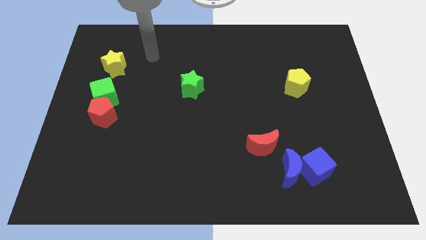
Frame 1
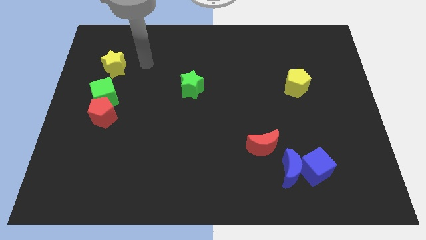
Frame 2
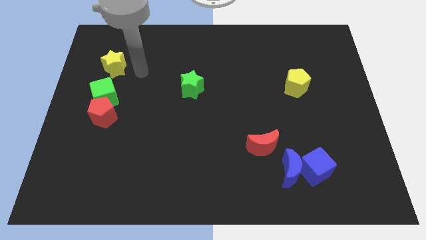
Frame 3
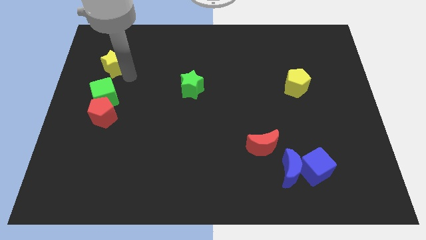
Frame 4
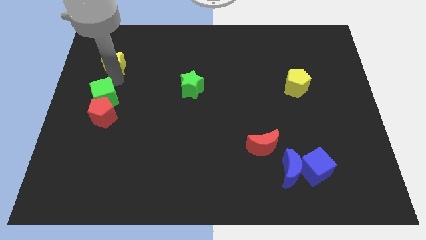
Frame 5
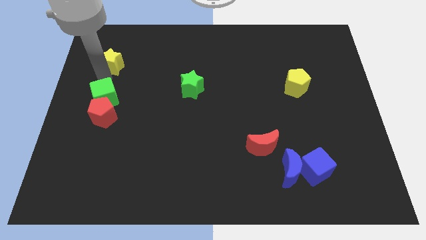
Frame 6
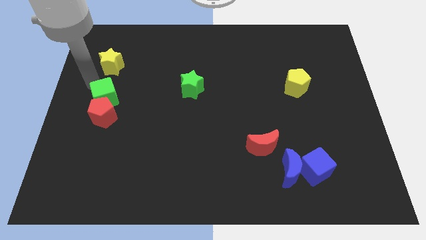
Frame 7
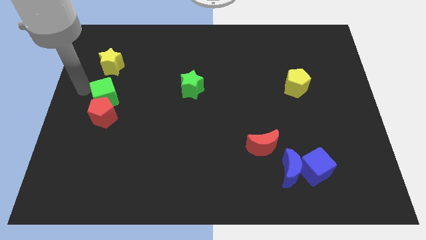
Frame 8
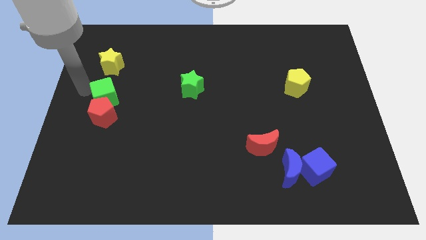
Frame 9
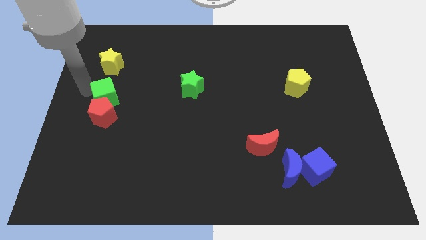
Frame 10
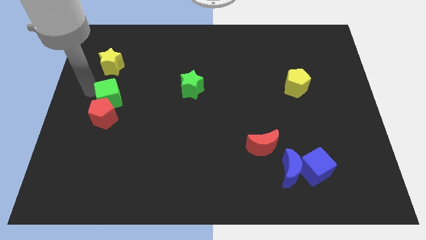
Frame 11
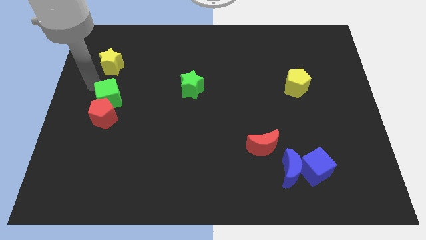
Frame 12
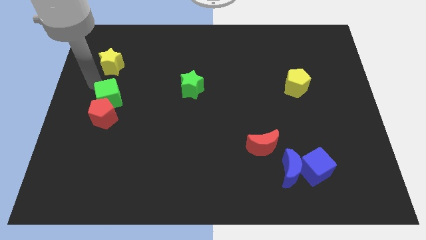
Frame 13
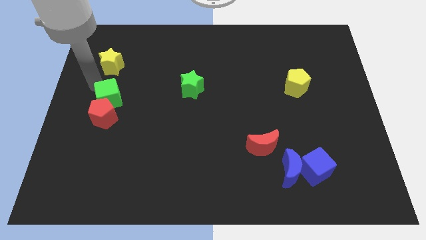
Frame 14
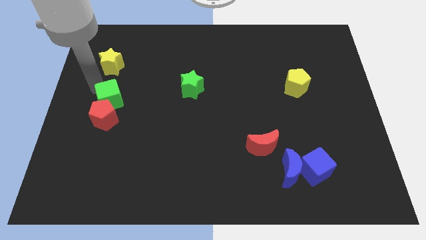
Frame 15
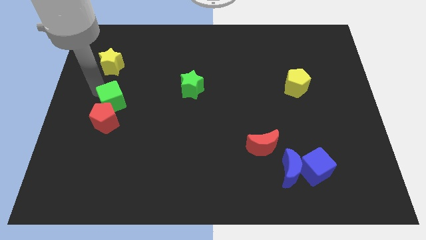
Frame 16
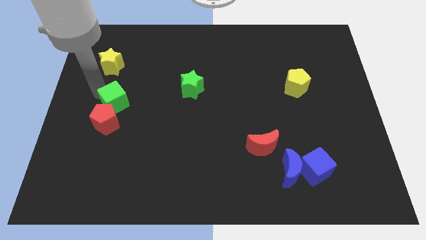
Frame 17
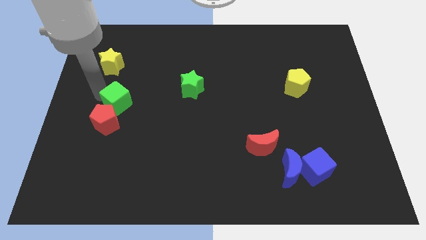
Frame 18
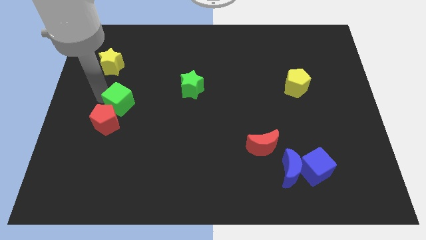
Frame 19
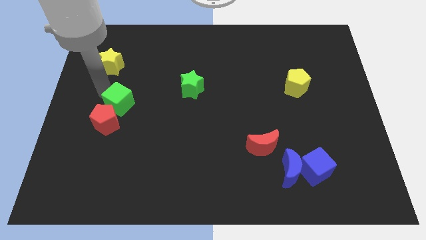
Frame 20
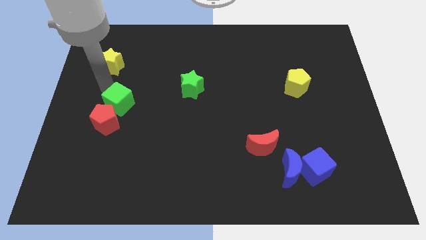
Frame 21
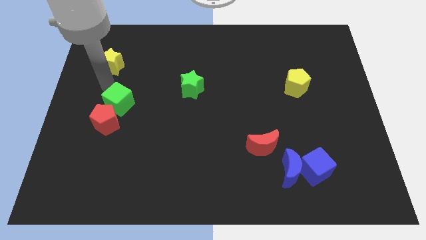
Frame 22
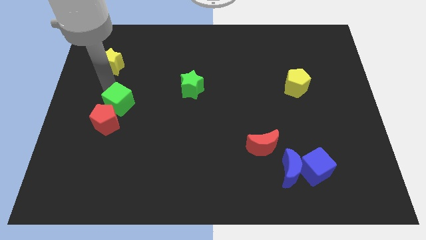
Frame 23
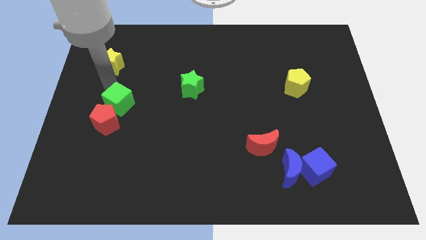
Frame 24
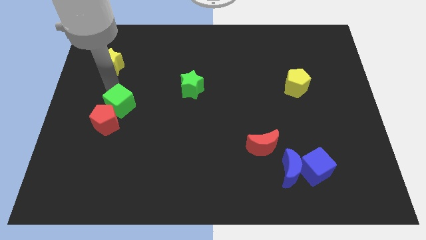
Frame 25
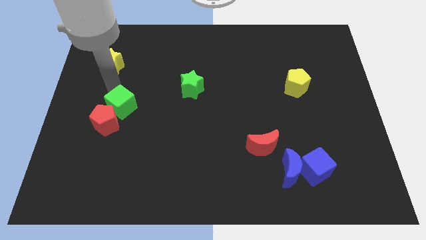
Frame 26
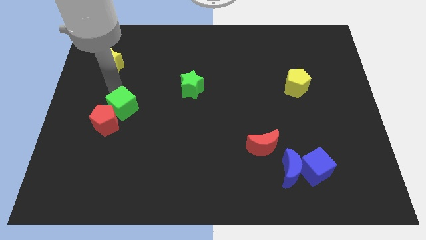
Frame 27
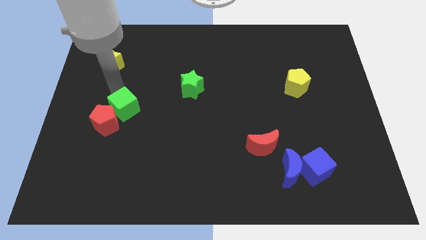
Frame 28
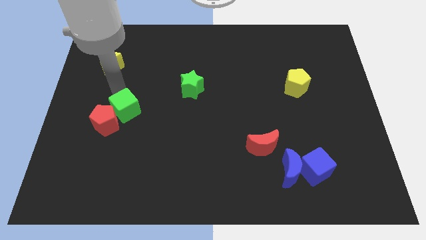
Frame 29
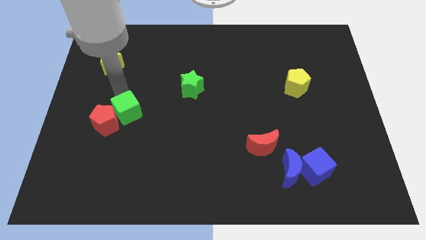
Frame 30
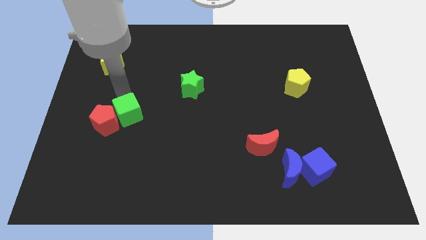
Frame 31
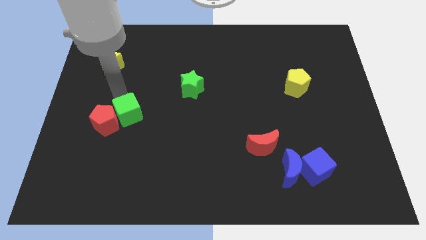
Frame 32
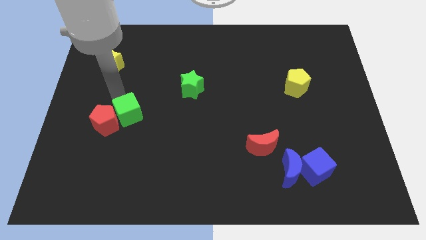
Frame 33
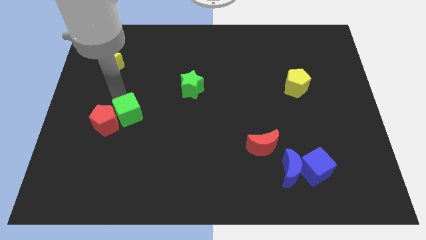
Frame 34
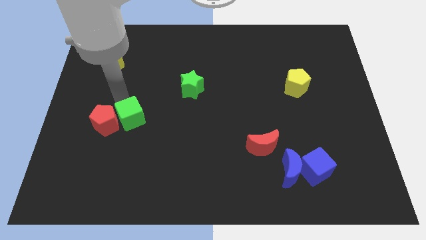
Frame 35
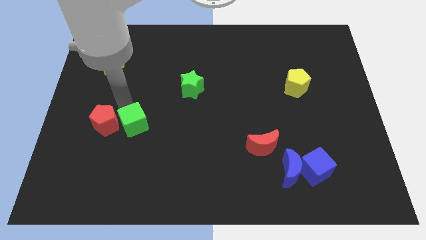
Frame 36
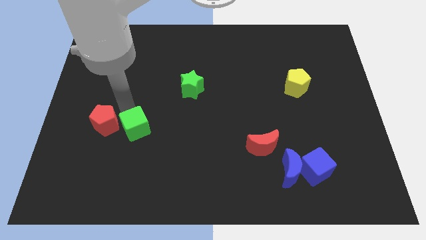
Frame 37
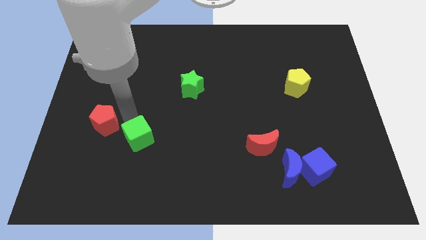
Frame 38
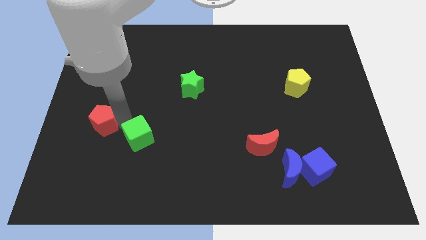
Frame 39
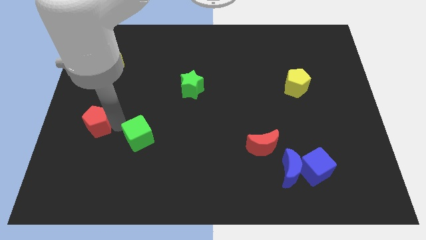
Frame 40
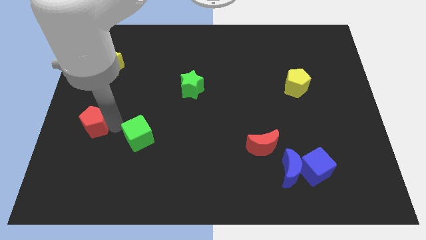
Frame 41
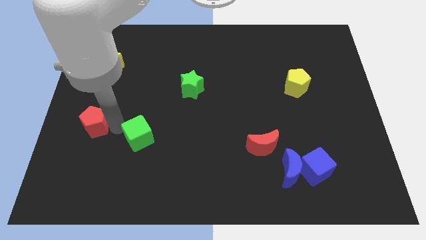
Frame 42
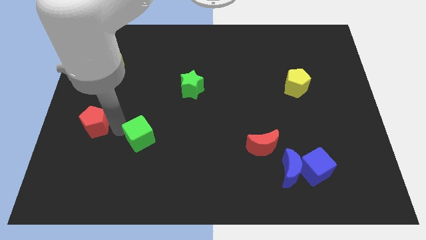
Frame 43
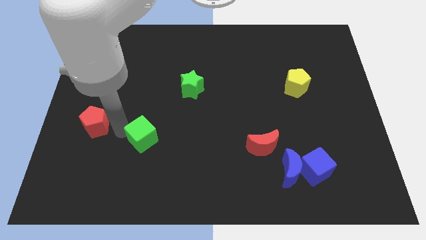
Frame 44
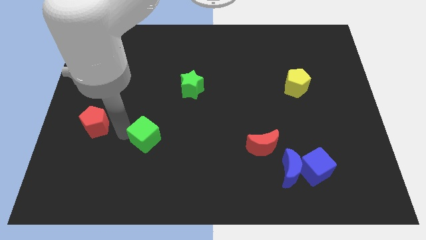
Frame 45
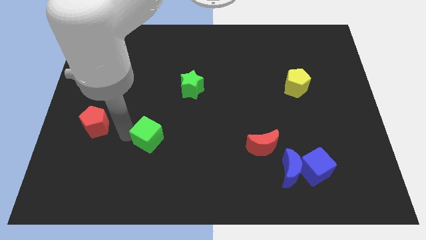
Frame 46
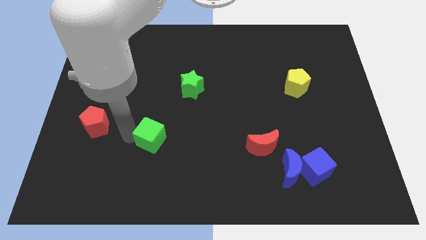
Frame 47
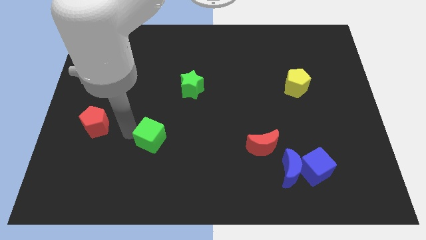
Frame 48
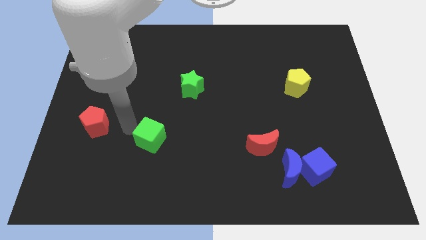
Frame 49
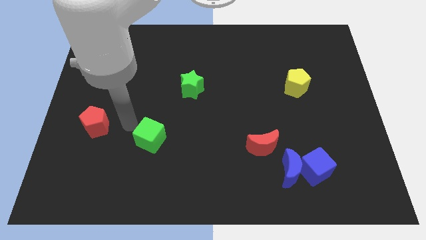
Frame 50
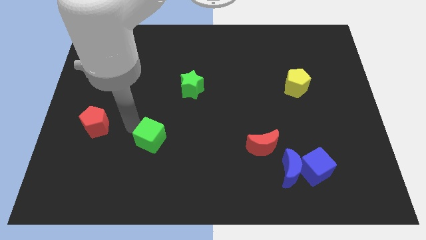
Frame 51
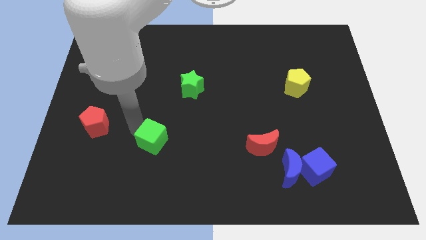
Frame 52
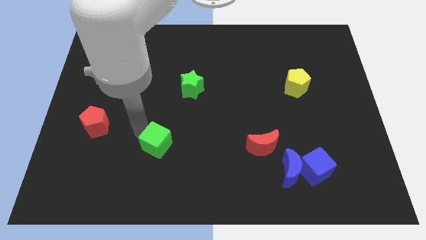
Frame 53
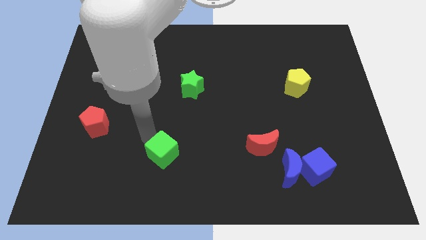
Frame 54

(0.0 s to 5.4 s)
move the green cube down and to the right

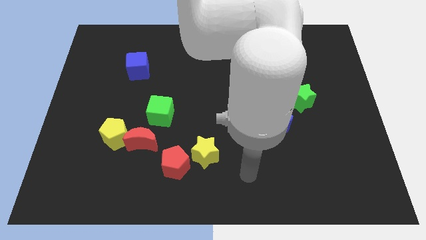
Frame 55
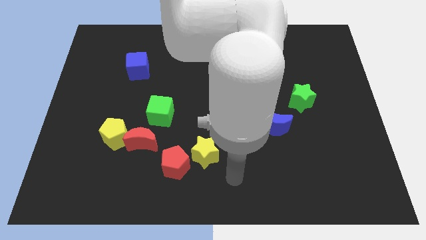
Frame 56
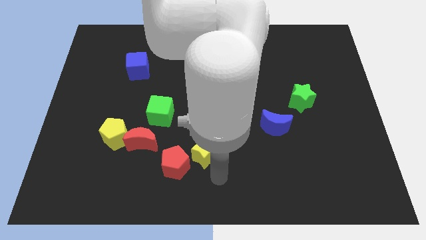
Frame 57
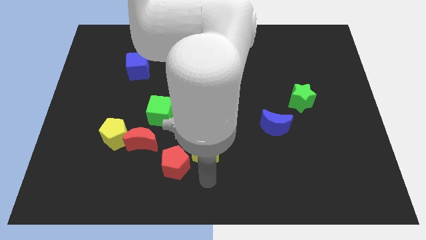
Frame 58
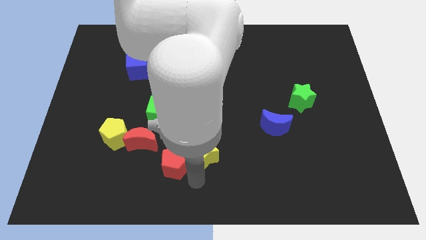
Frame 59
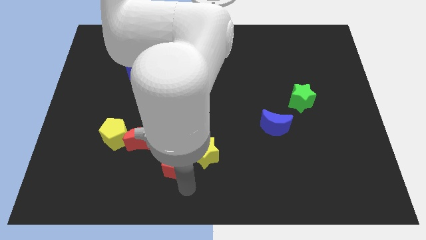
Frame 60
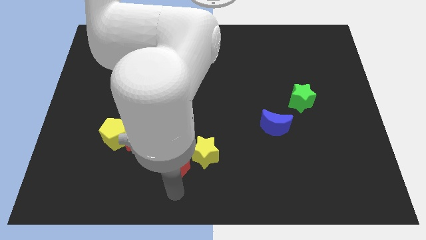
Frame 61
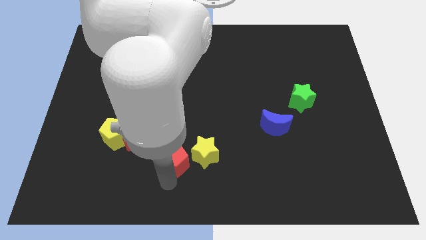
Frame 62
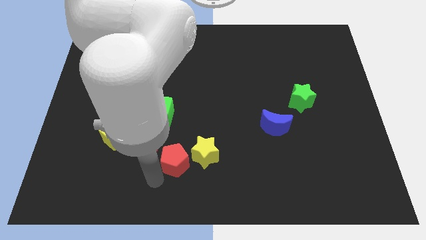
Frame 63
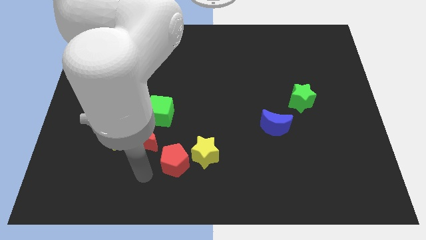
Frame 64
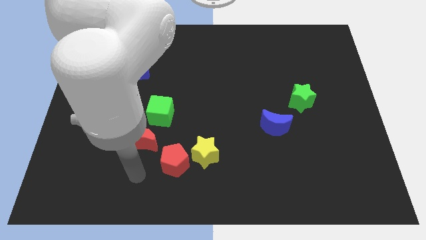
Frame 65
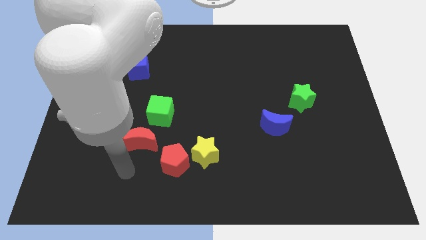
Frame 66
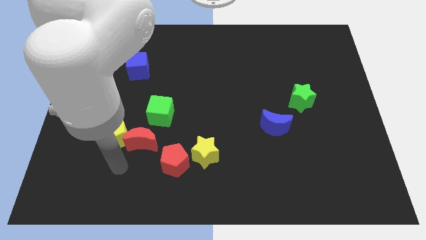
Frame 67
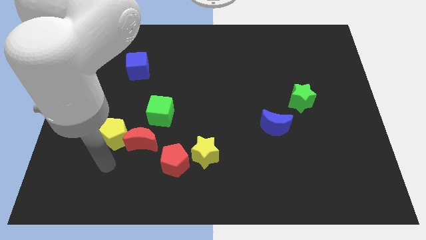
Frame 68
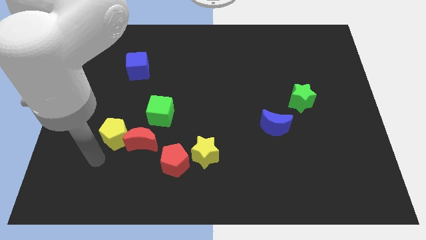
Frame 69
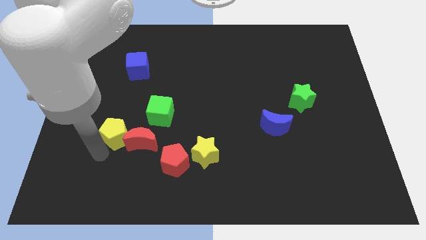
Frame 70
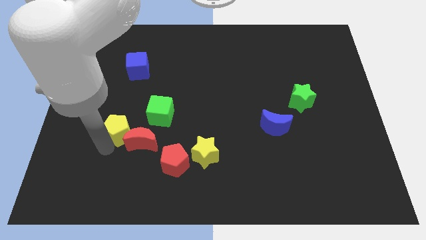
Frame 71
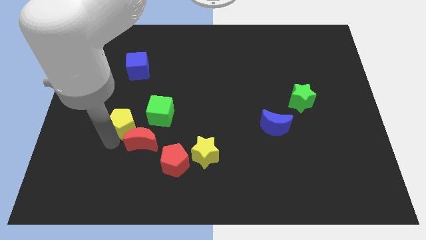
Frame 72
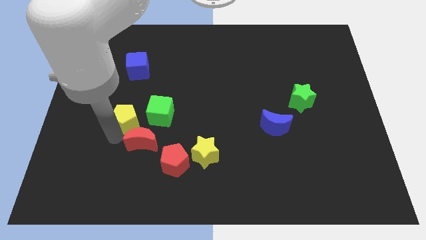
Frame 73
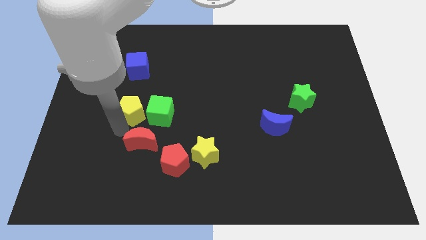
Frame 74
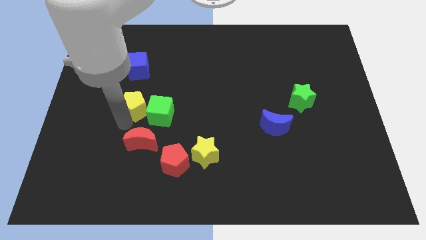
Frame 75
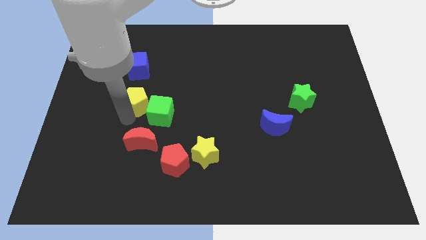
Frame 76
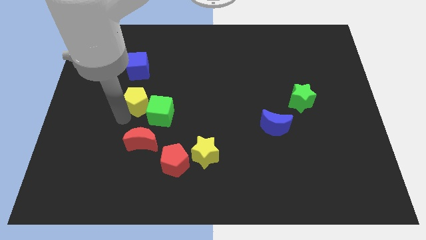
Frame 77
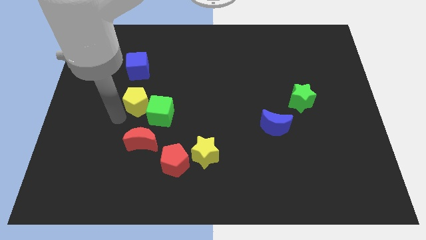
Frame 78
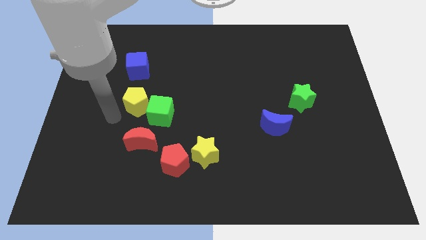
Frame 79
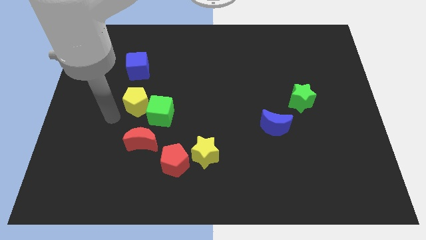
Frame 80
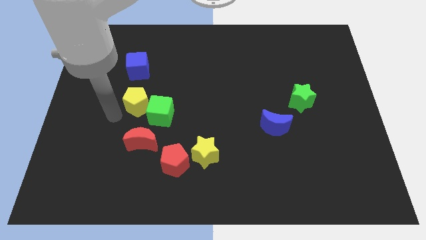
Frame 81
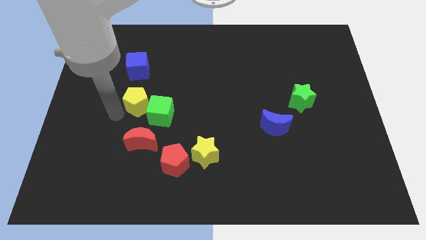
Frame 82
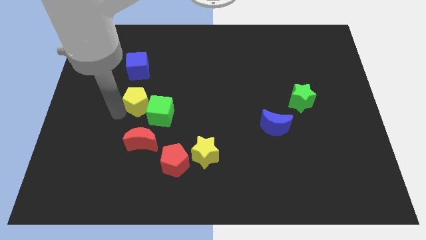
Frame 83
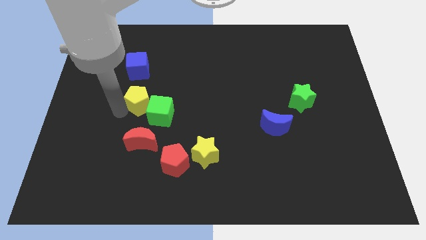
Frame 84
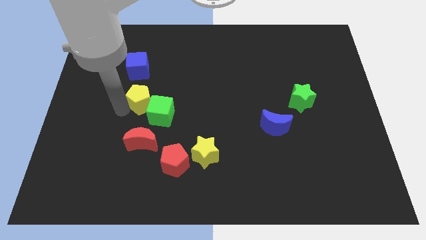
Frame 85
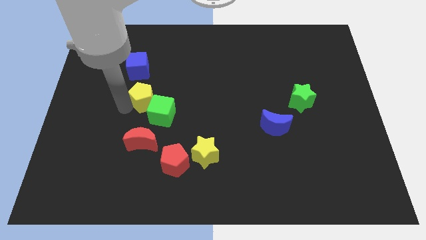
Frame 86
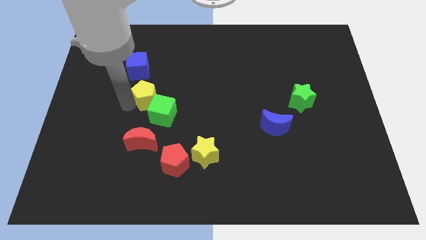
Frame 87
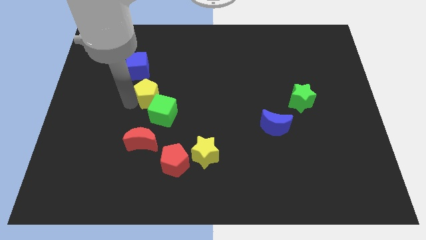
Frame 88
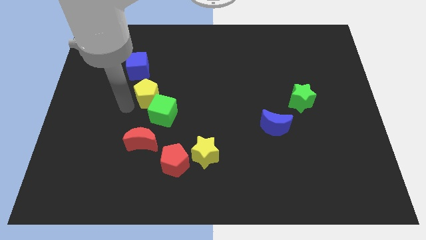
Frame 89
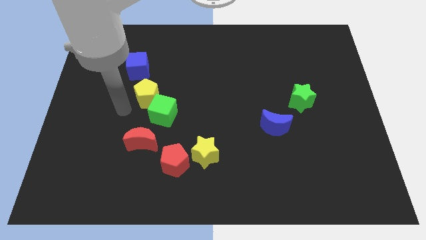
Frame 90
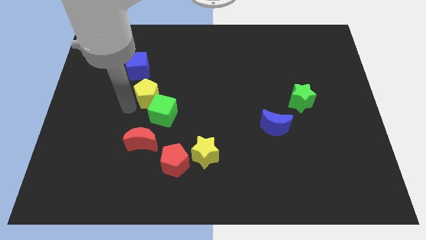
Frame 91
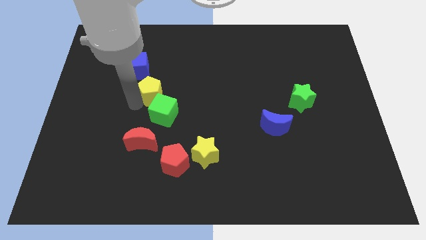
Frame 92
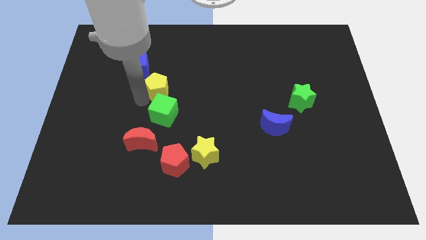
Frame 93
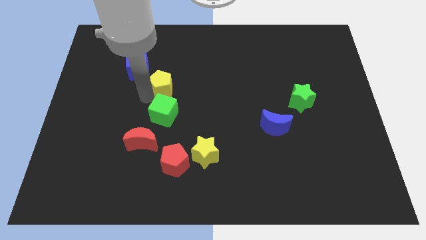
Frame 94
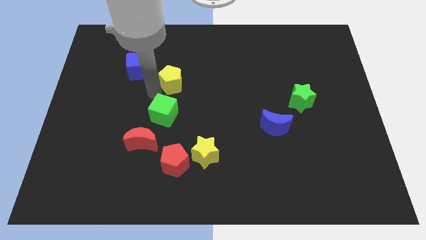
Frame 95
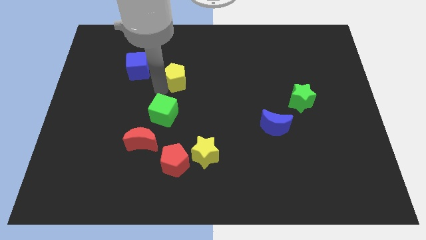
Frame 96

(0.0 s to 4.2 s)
slide the yellow pentagon up and right diagonally
